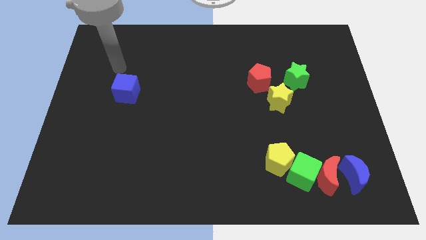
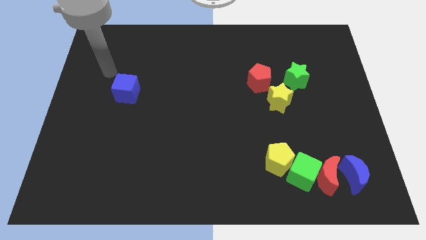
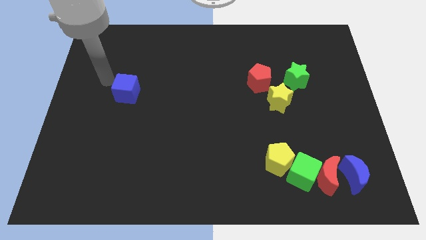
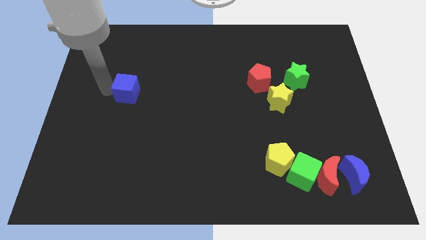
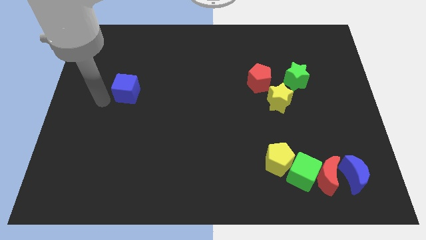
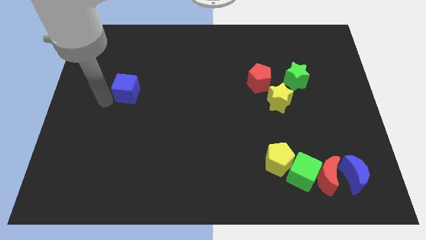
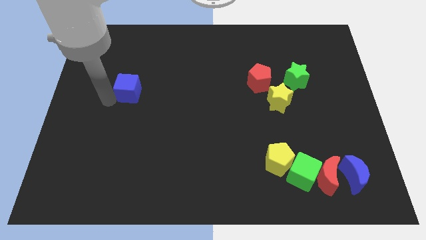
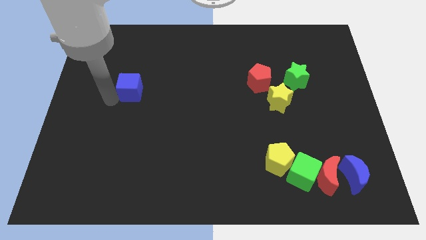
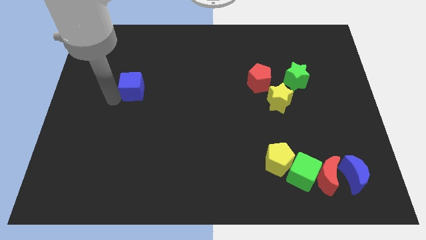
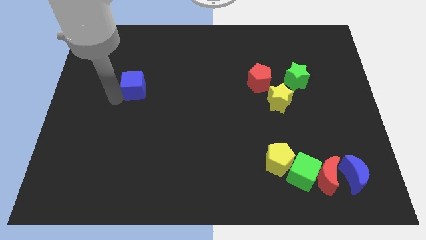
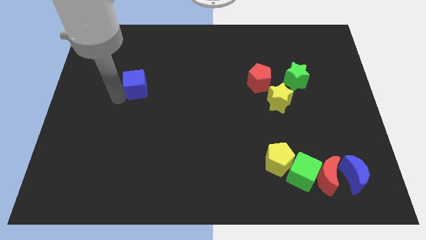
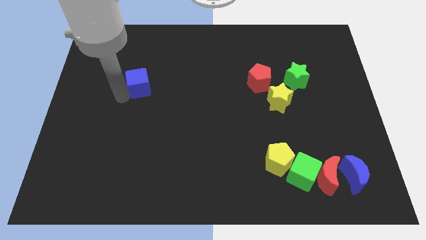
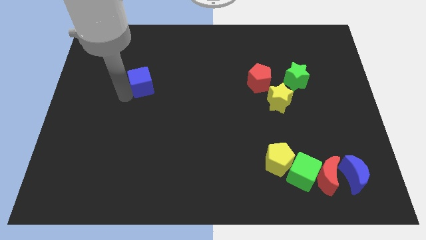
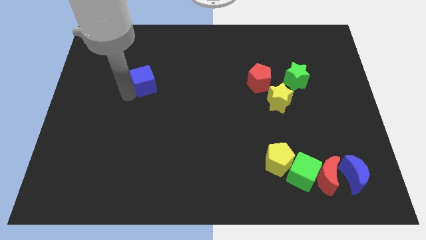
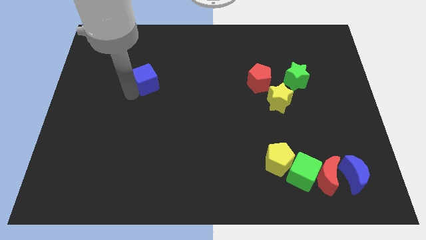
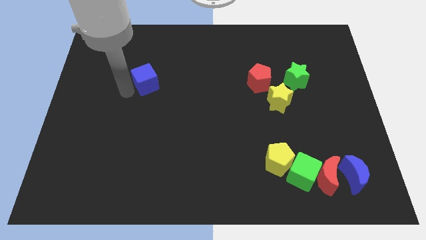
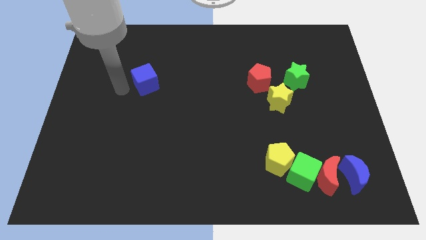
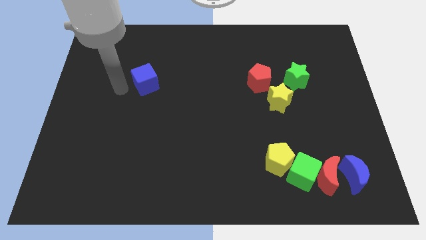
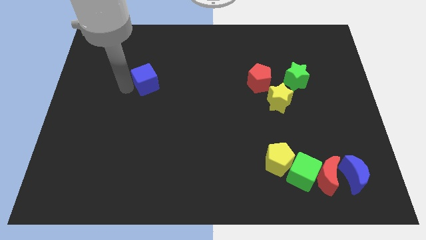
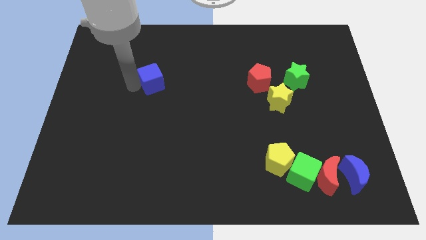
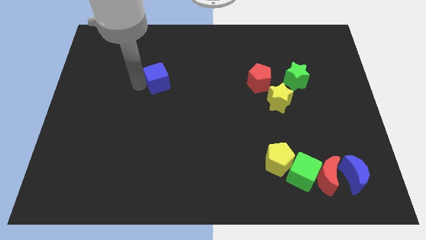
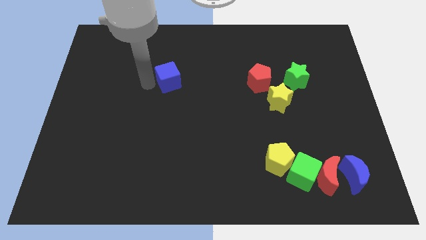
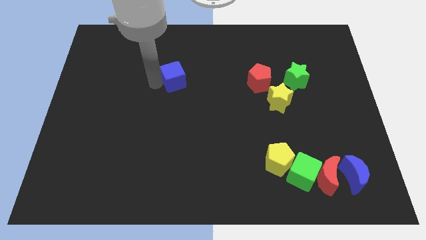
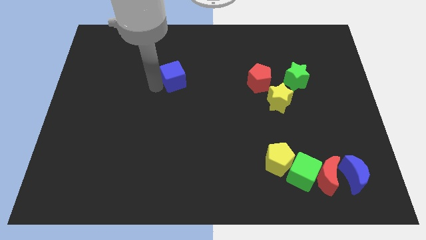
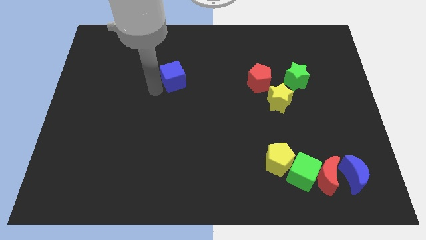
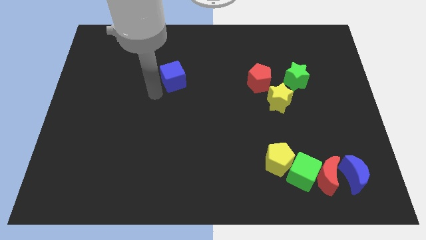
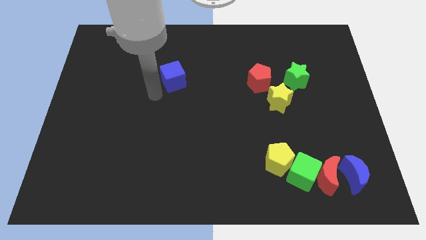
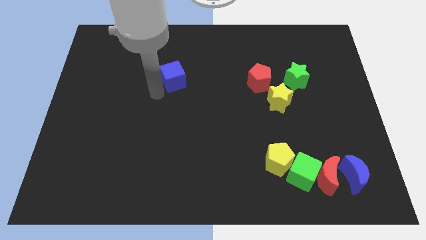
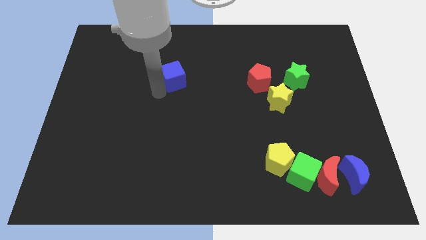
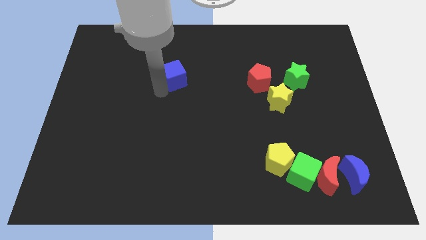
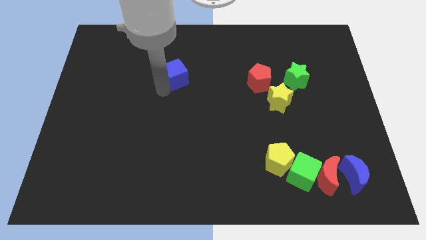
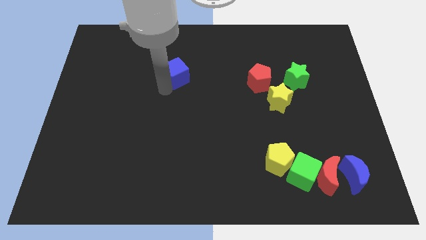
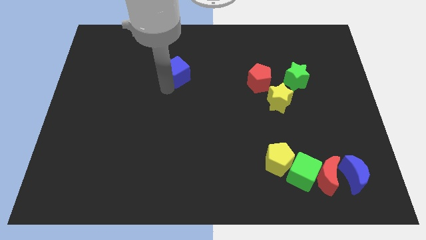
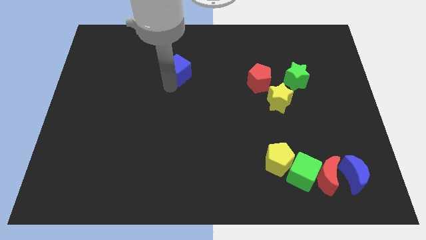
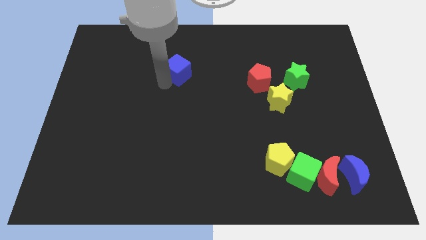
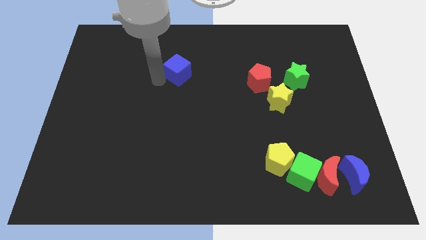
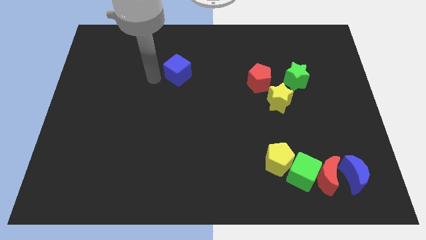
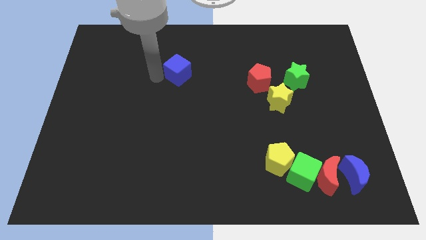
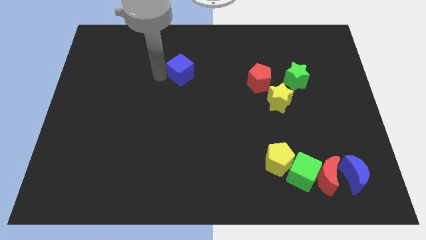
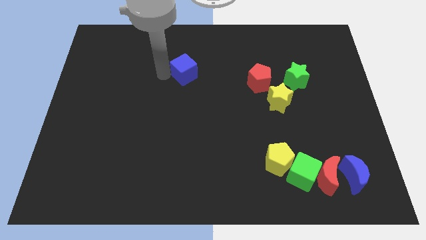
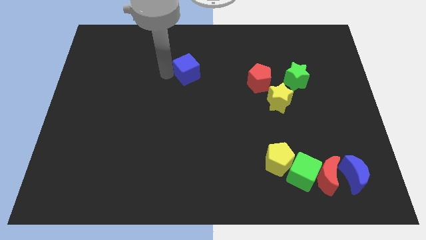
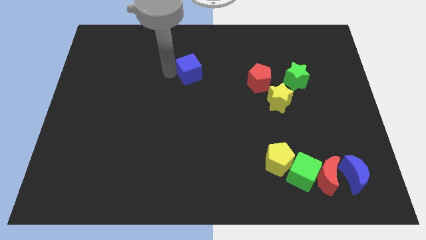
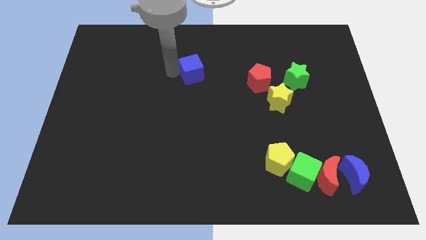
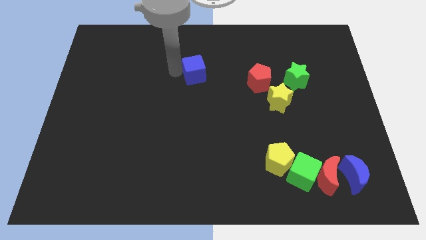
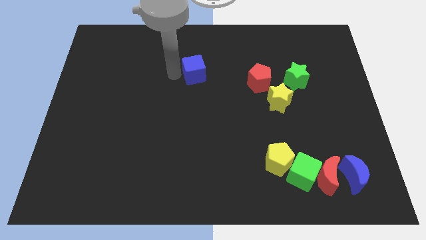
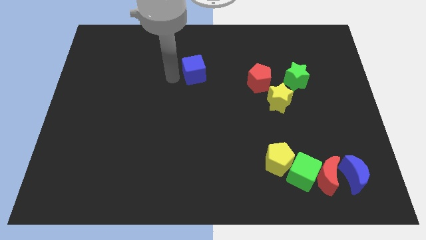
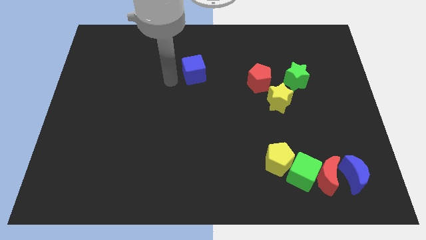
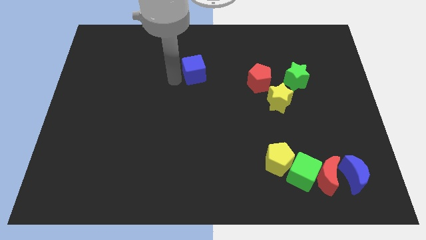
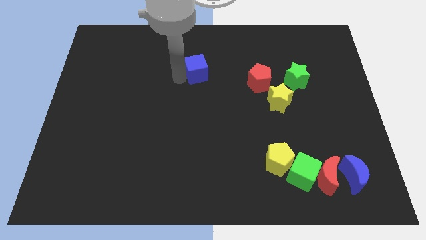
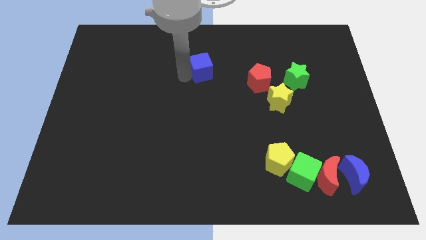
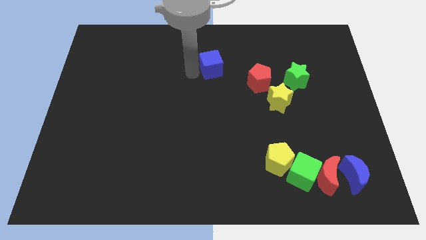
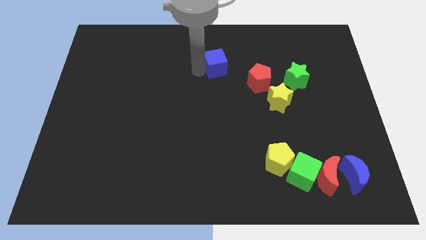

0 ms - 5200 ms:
push the blue cube to the top left side of the red pentagon

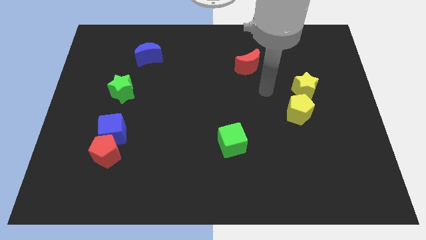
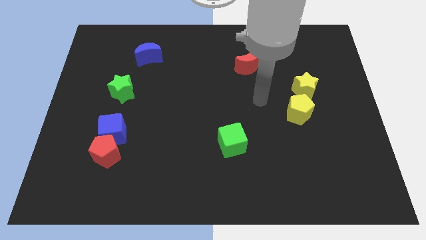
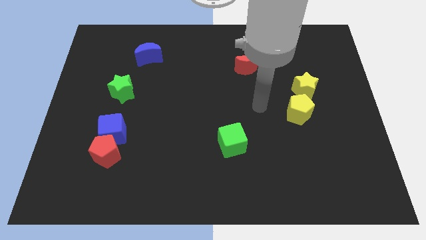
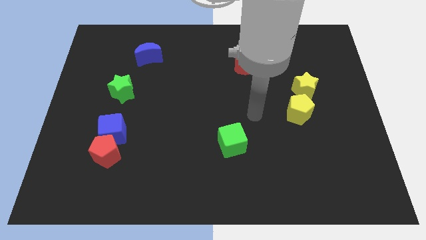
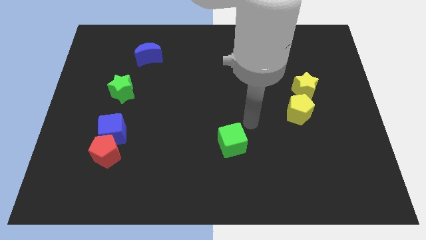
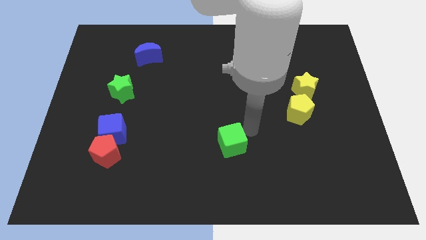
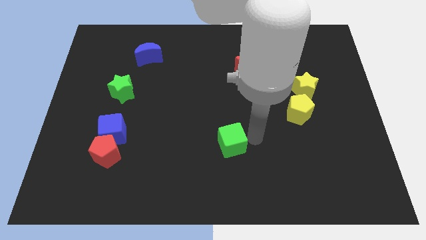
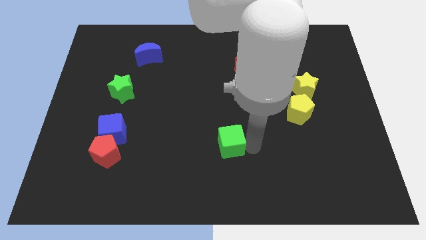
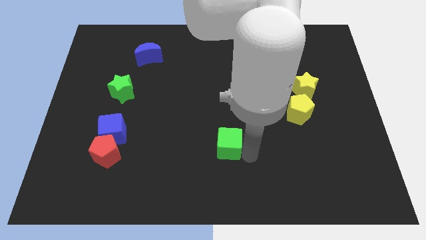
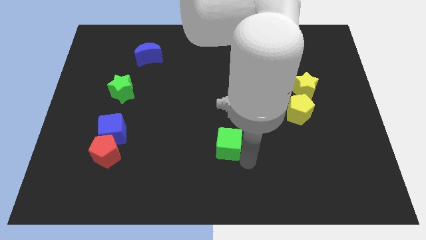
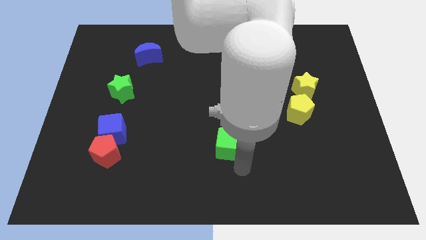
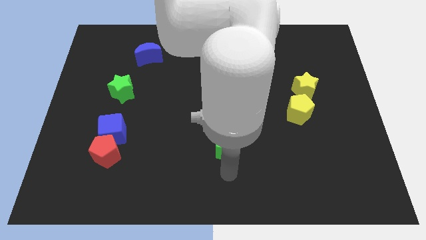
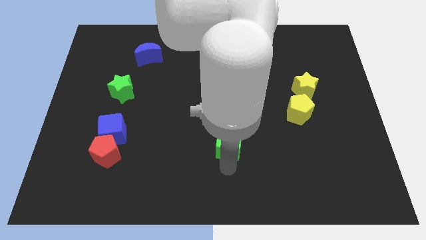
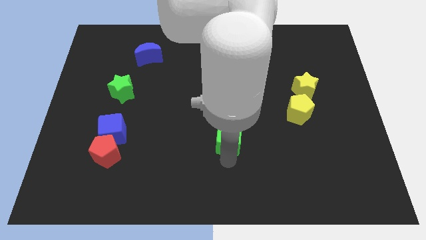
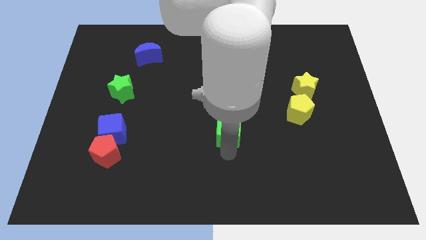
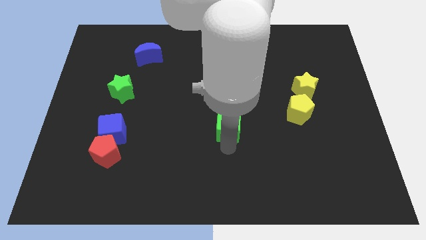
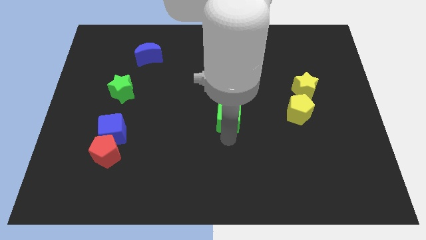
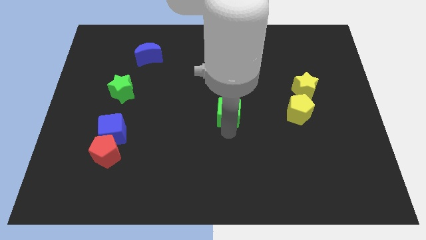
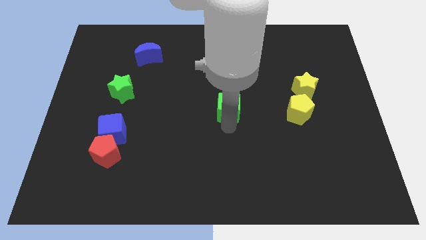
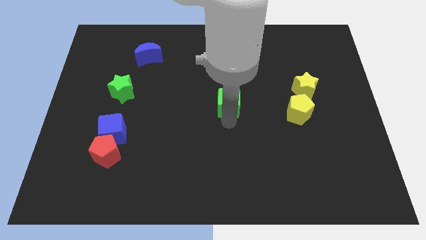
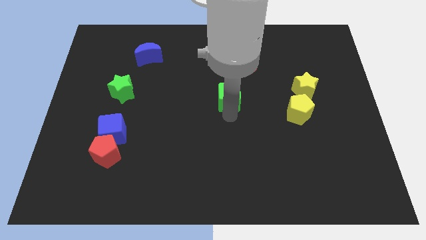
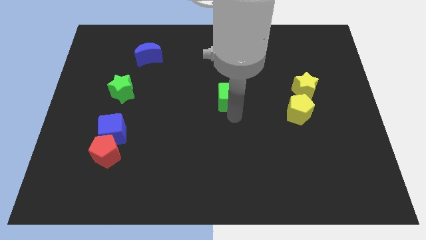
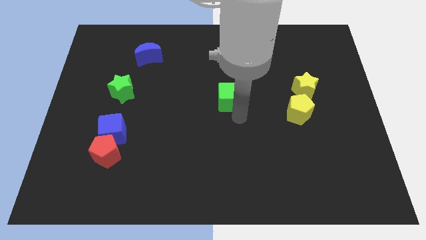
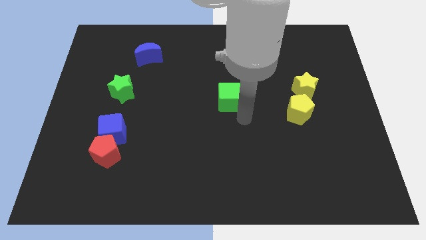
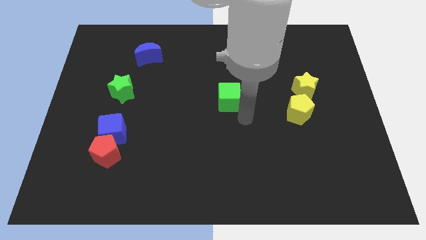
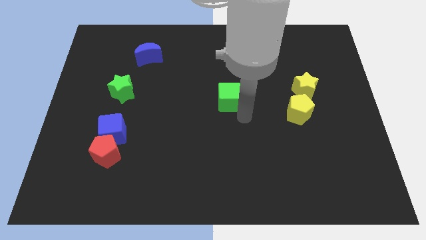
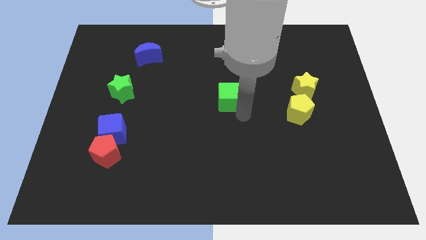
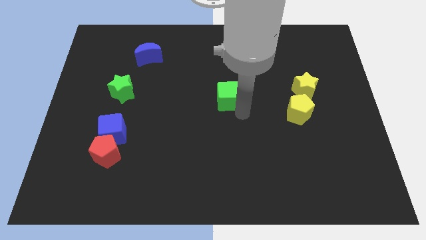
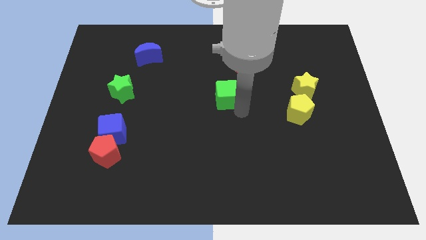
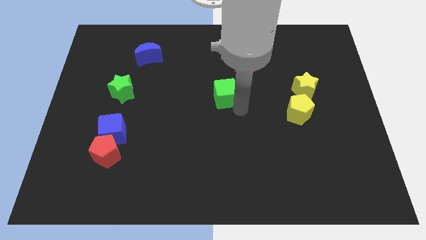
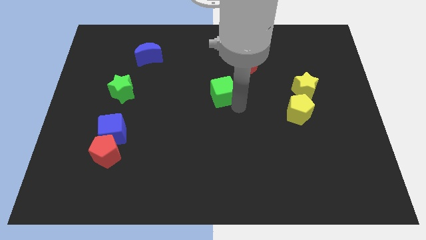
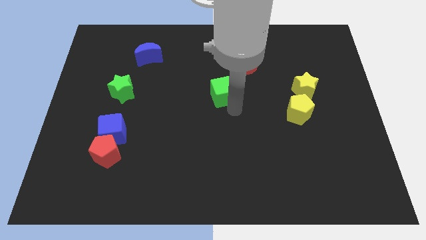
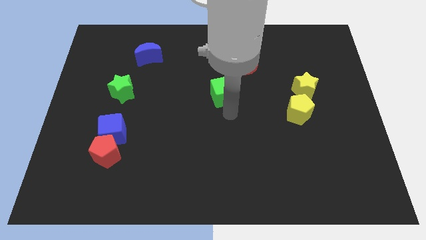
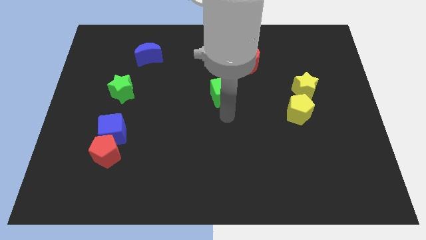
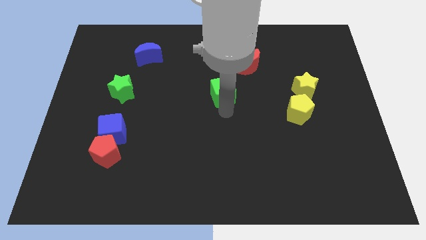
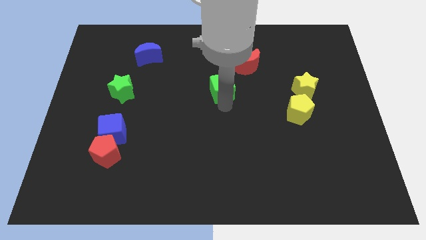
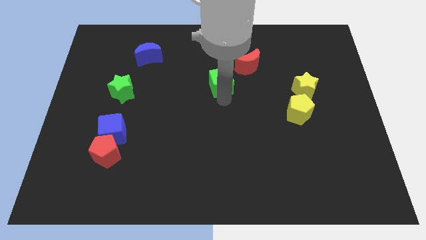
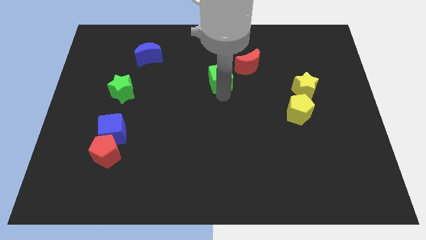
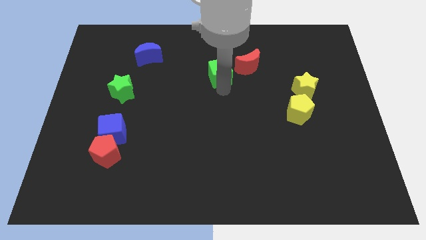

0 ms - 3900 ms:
move the green cube just left of the red moon
